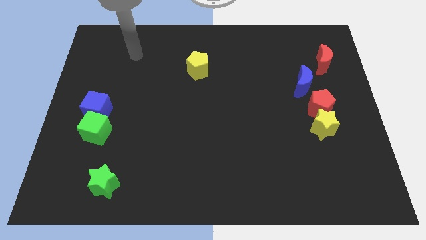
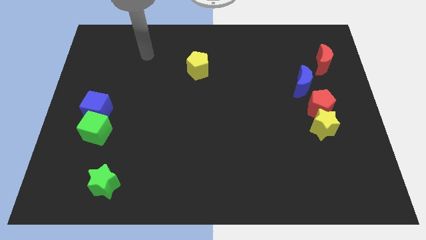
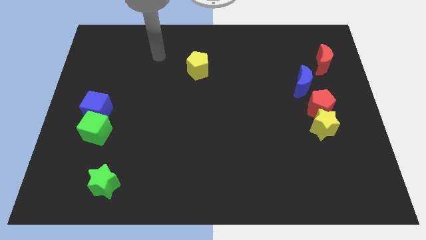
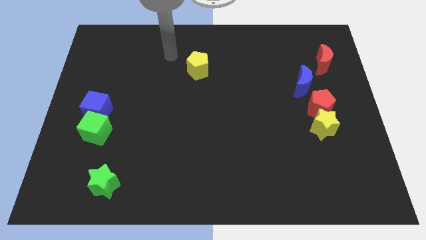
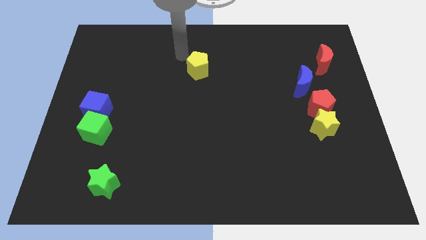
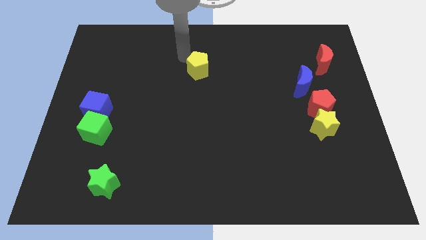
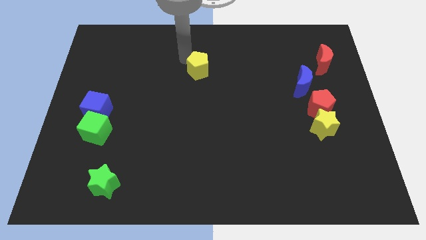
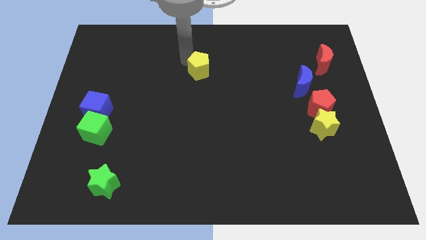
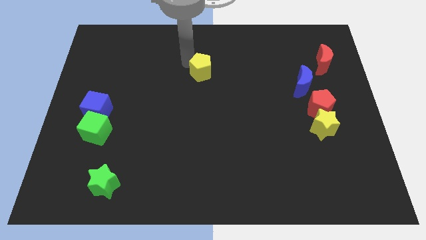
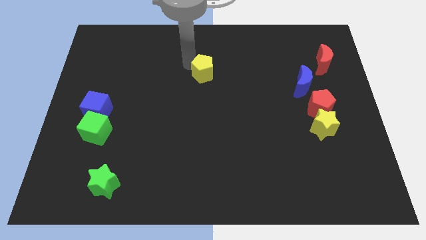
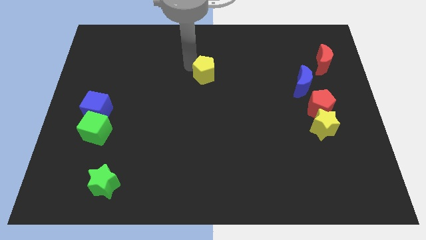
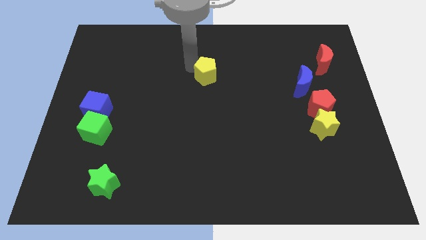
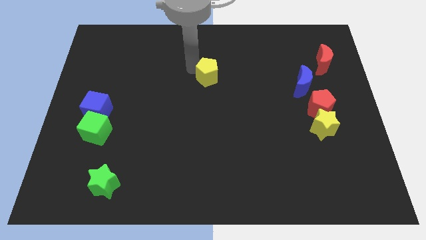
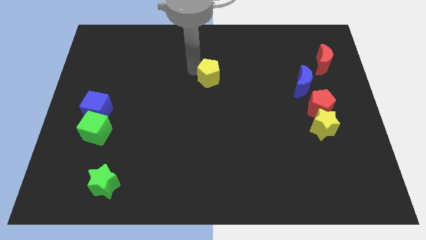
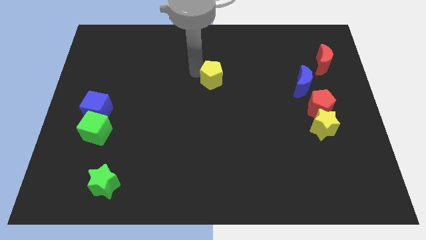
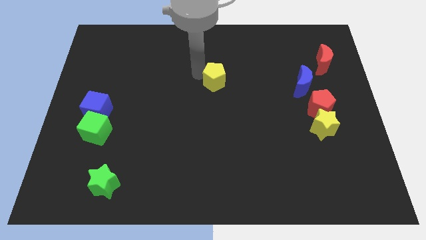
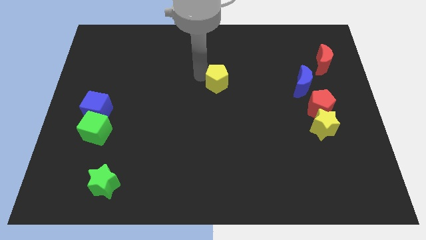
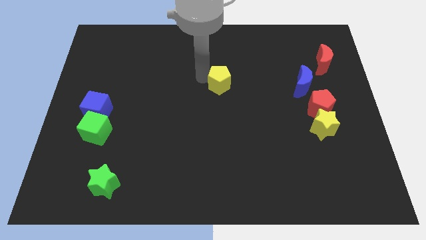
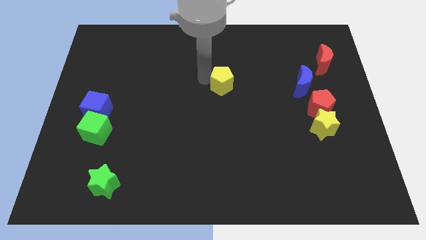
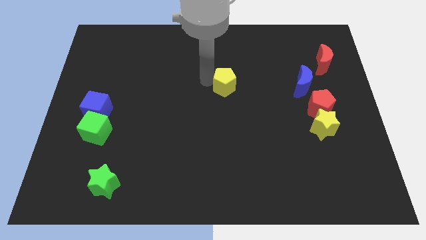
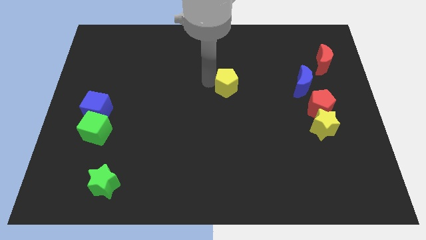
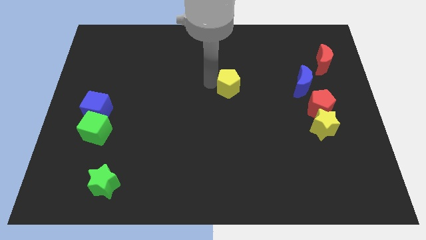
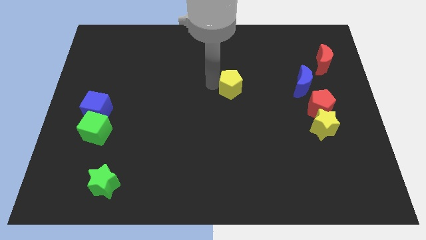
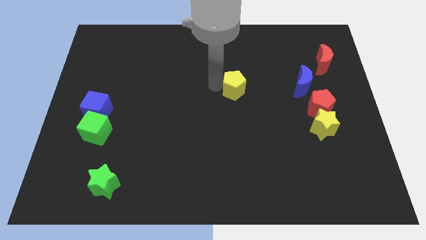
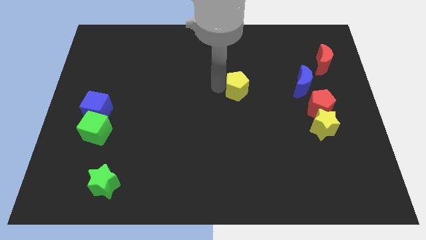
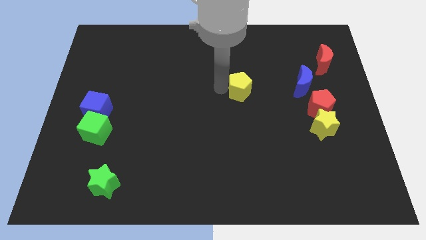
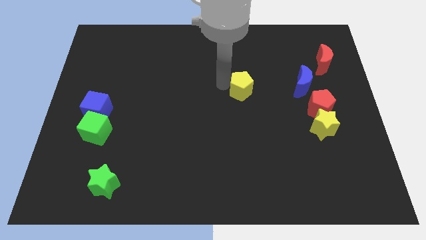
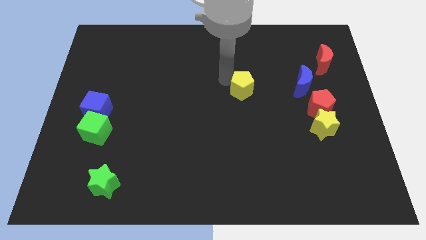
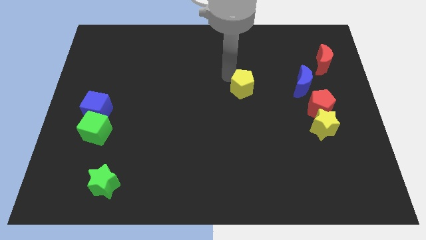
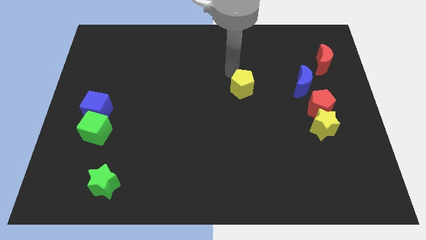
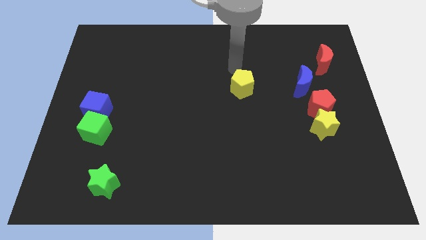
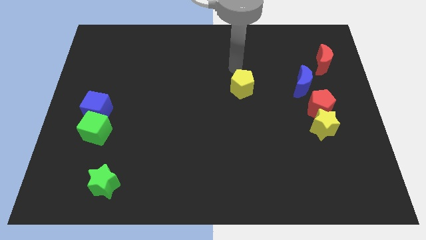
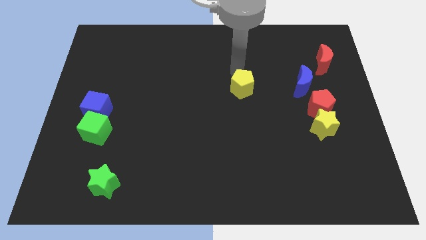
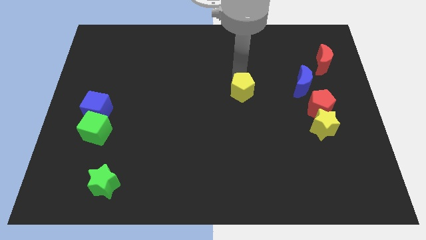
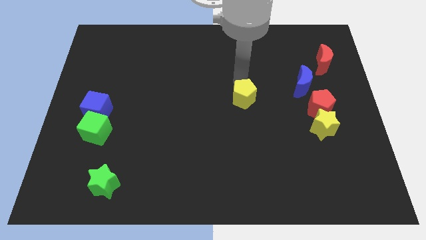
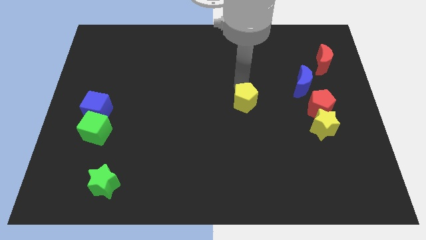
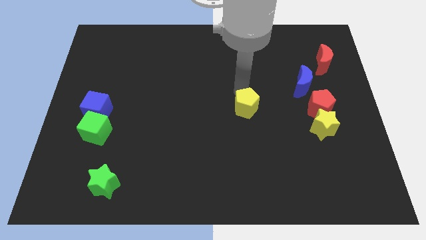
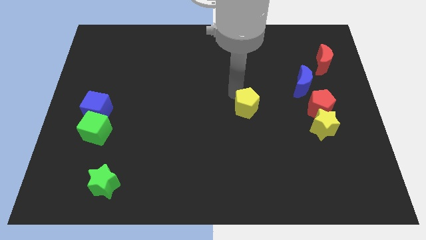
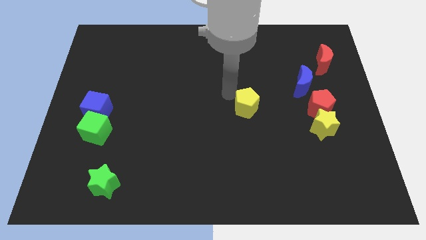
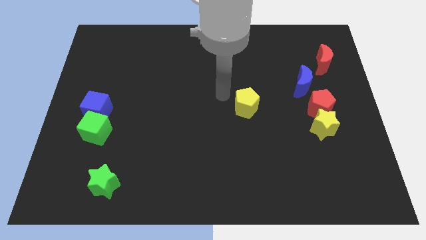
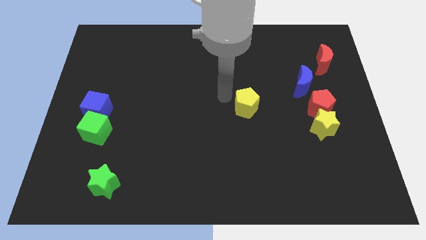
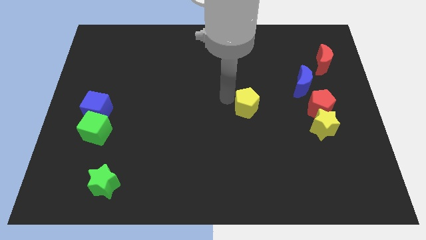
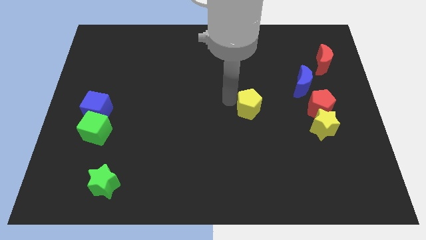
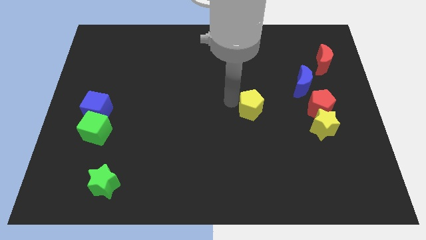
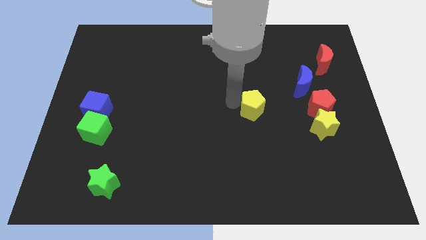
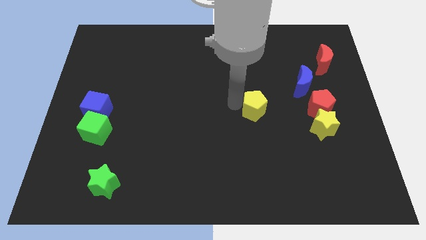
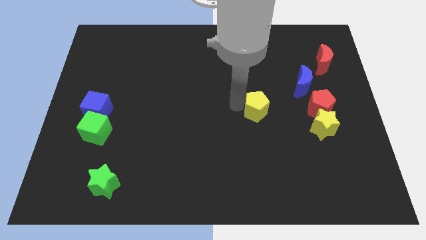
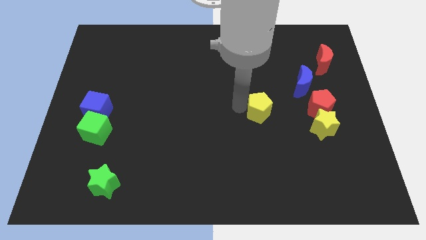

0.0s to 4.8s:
push the yellow pentagon diagonally down and to the right

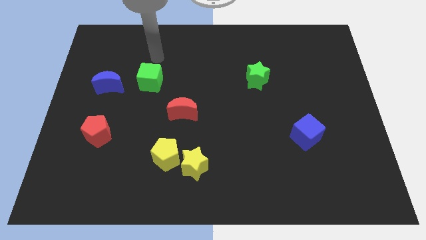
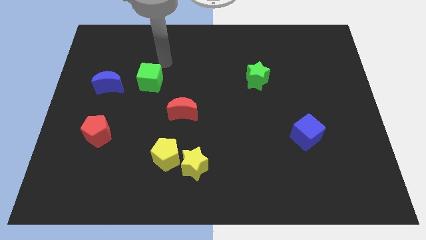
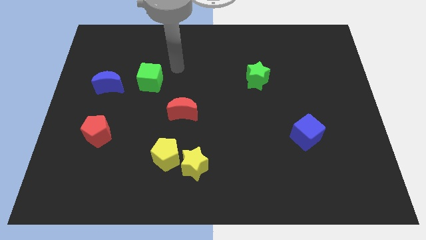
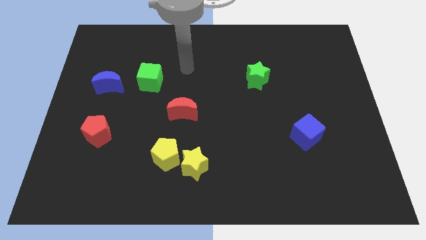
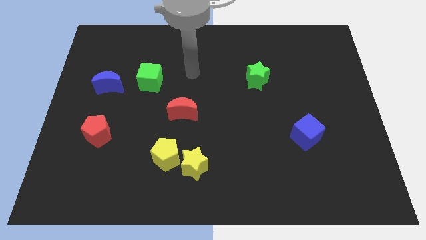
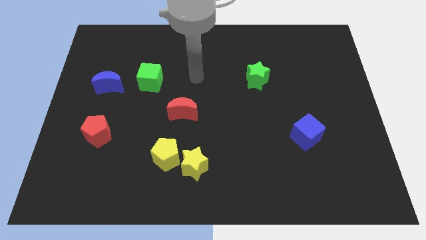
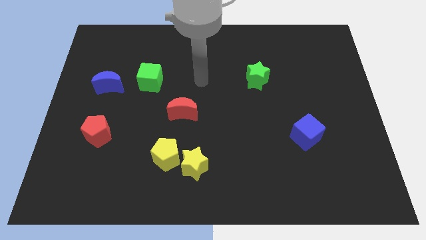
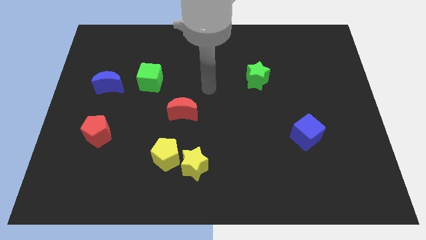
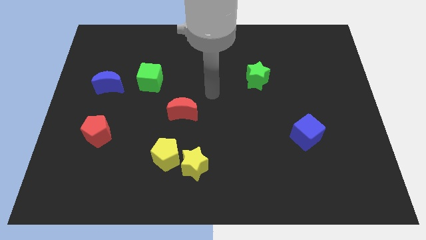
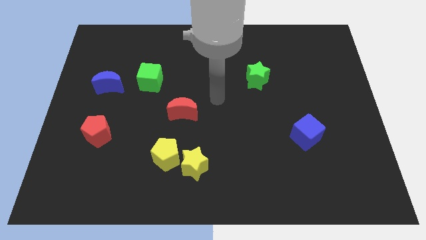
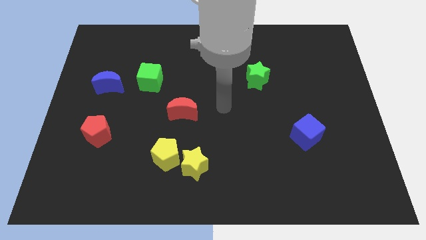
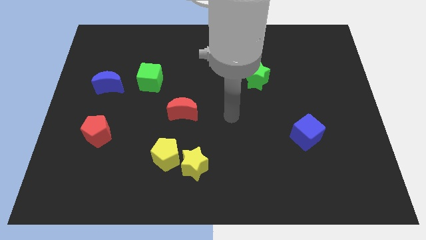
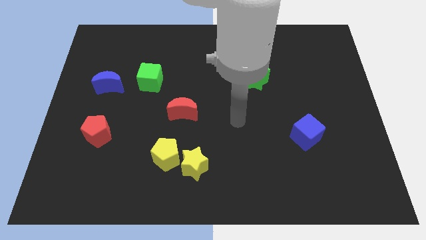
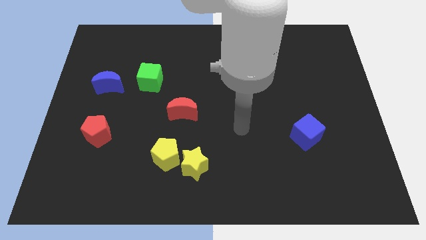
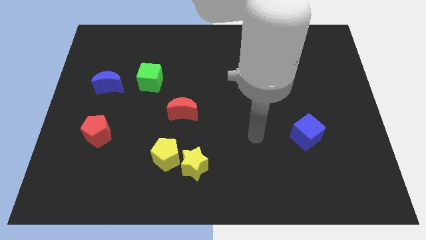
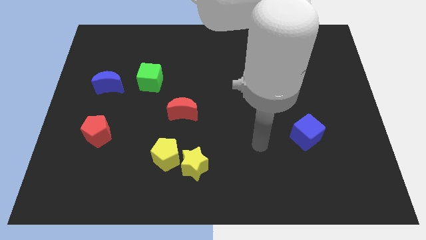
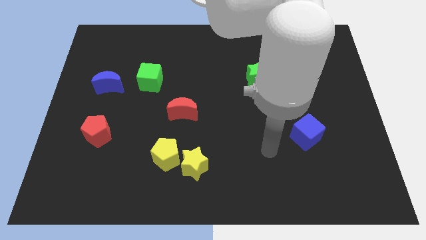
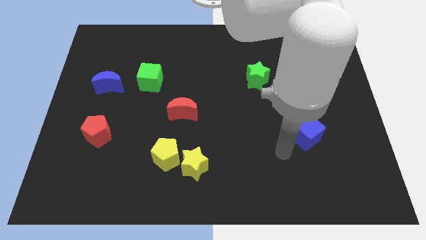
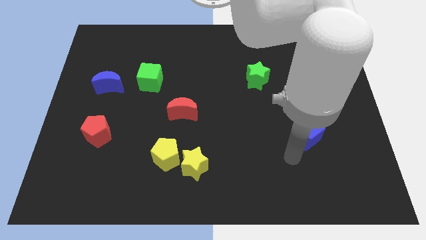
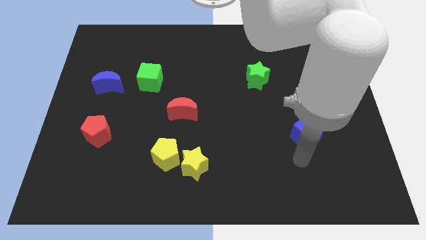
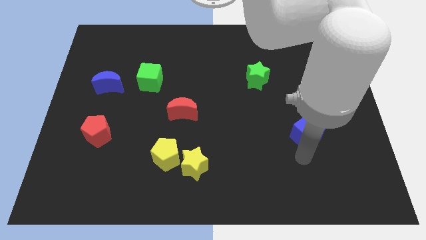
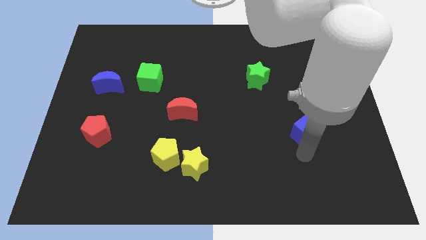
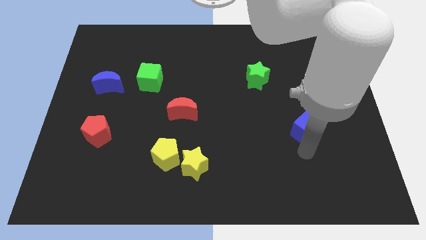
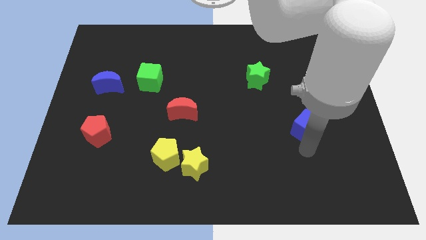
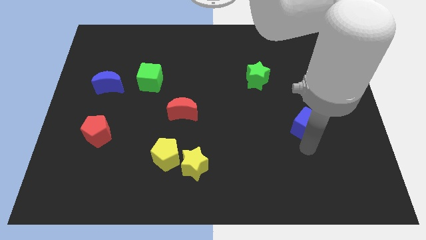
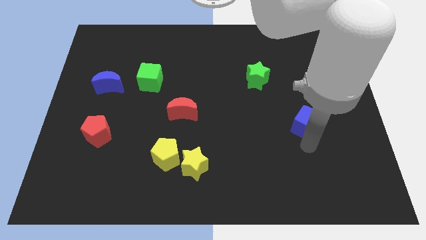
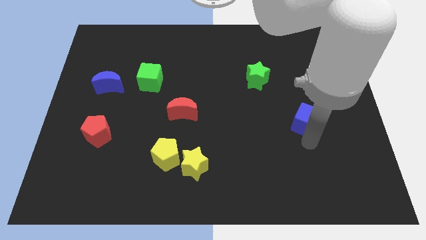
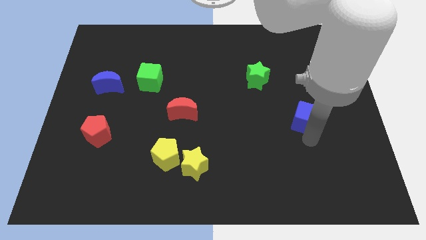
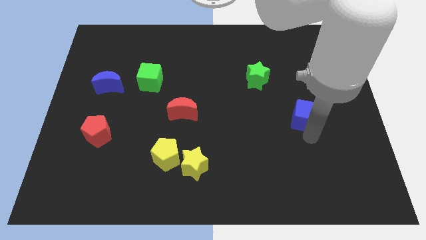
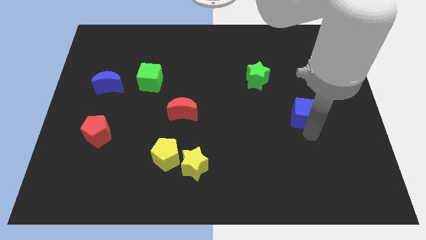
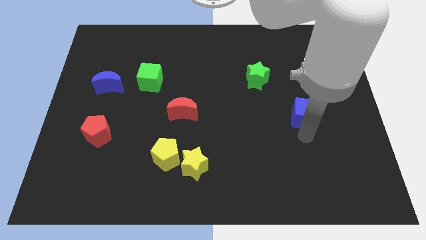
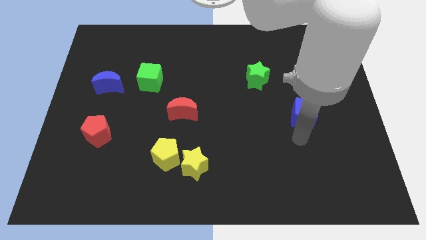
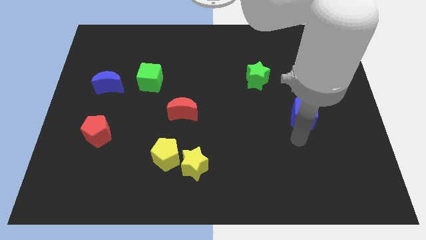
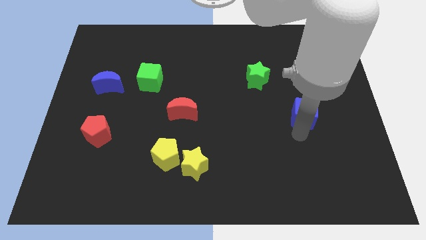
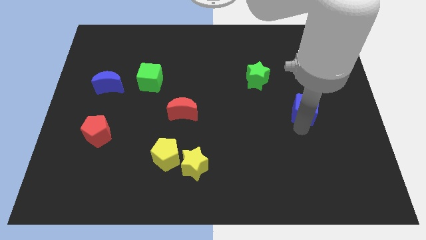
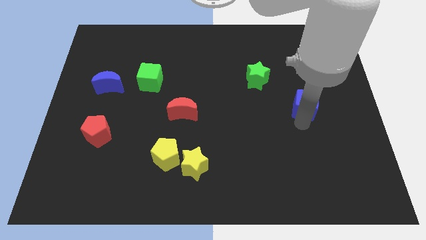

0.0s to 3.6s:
slide the blue cube upwards slightly
